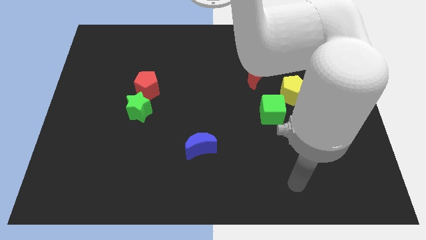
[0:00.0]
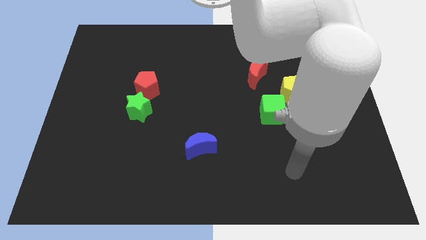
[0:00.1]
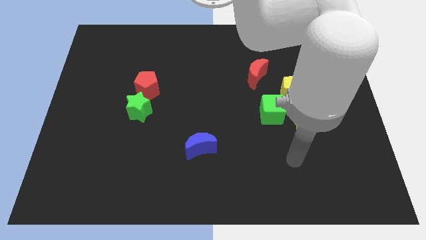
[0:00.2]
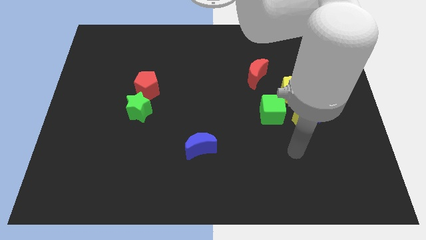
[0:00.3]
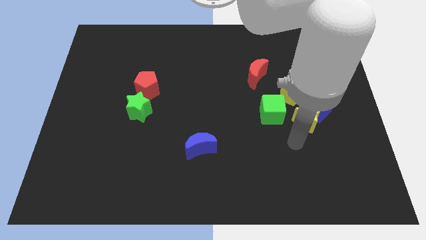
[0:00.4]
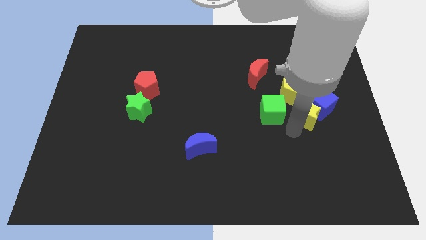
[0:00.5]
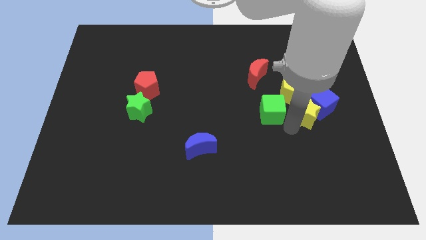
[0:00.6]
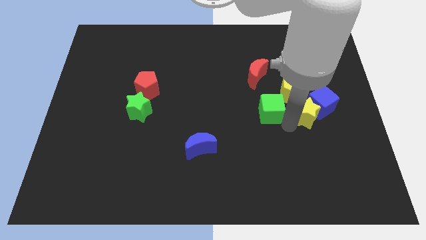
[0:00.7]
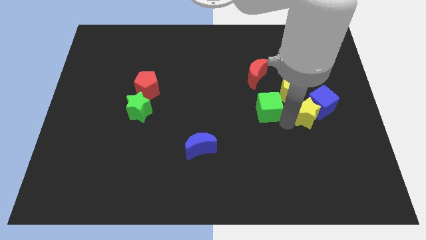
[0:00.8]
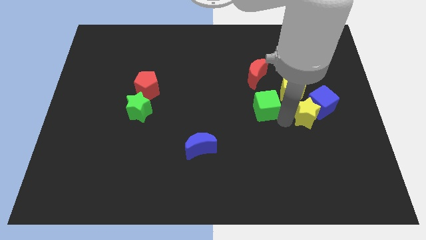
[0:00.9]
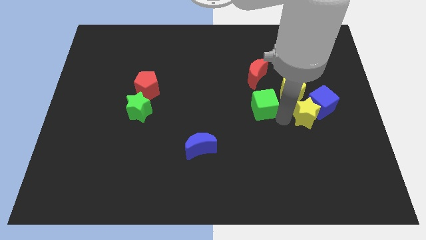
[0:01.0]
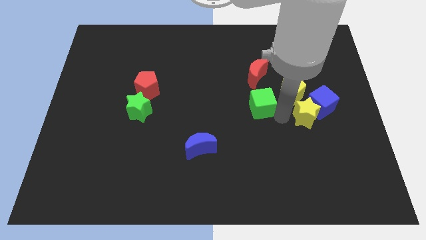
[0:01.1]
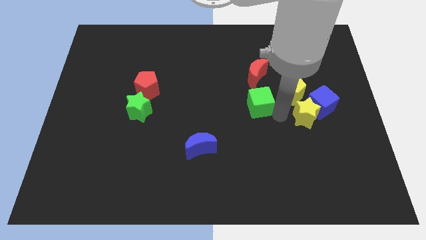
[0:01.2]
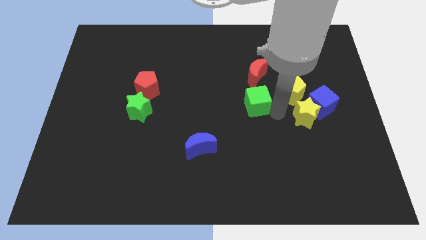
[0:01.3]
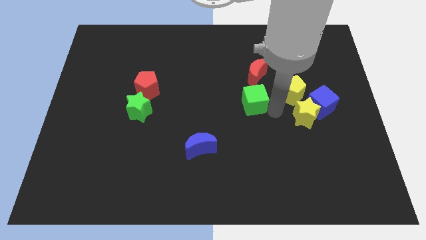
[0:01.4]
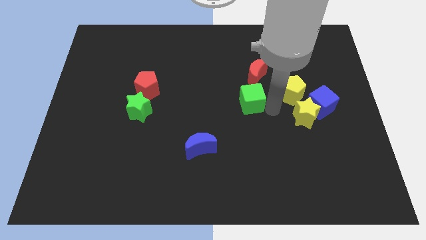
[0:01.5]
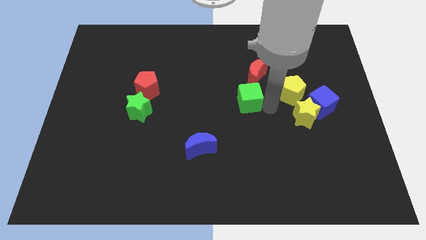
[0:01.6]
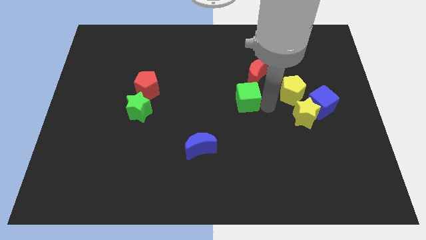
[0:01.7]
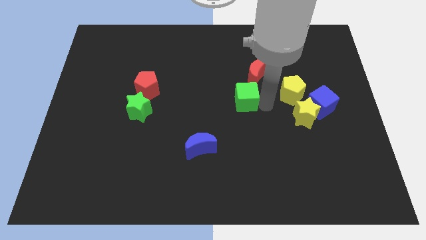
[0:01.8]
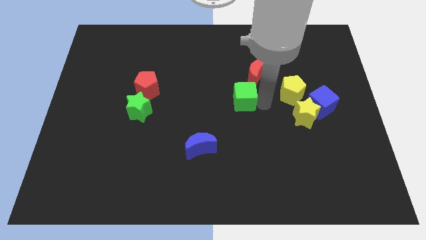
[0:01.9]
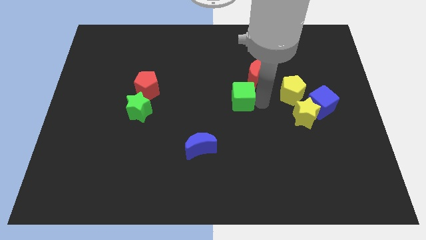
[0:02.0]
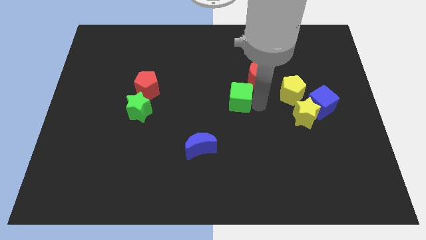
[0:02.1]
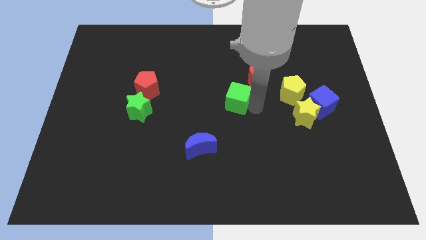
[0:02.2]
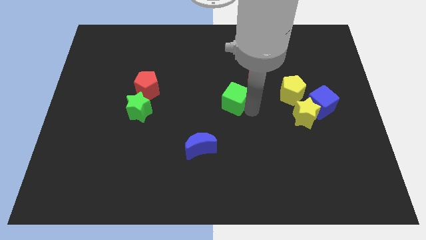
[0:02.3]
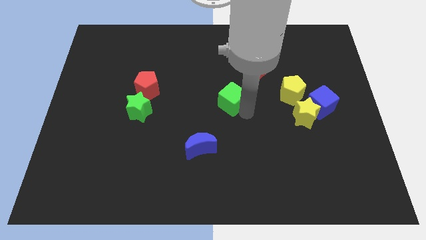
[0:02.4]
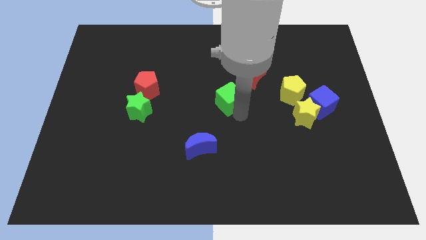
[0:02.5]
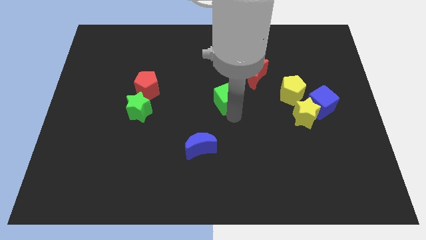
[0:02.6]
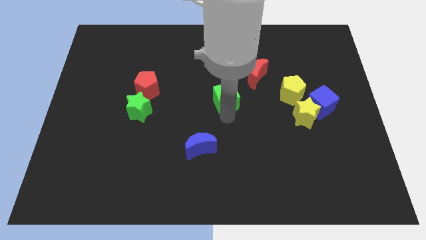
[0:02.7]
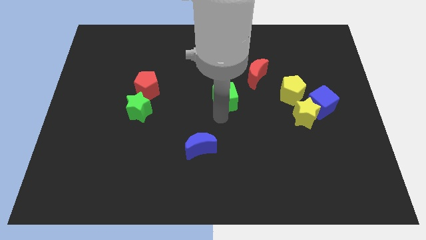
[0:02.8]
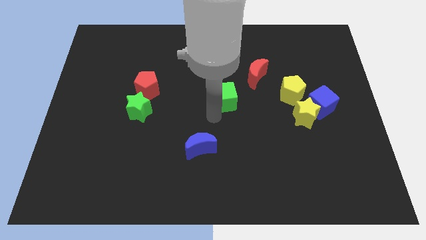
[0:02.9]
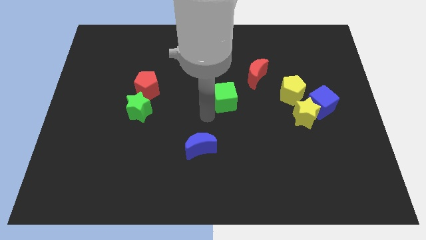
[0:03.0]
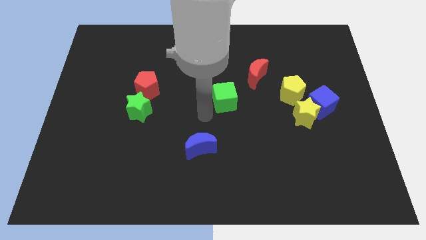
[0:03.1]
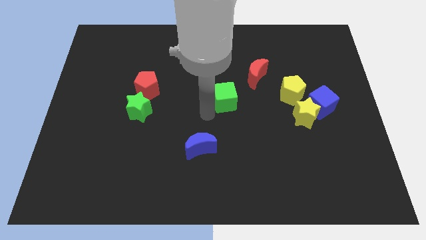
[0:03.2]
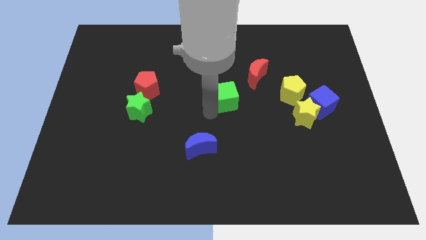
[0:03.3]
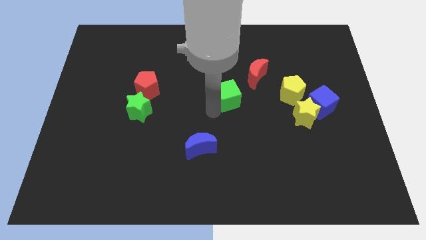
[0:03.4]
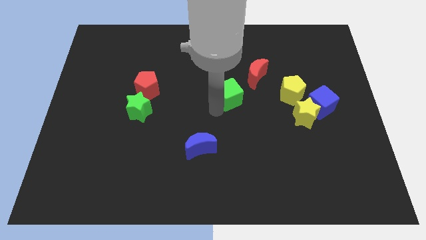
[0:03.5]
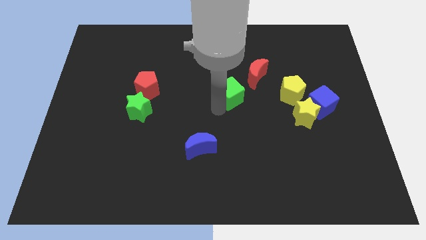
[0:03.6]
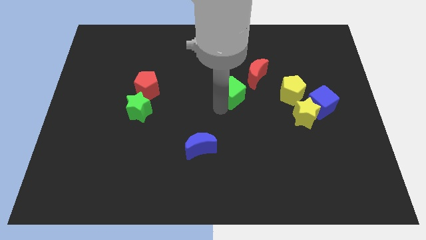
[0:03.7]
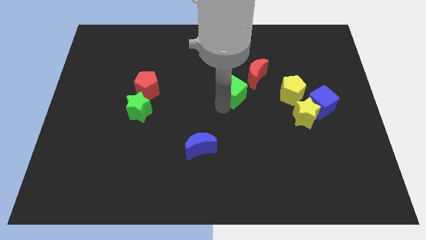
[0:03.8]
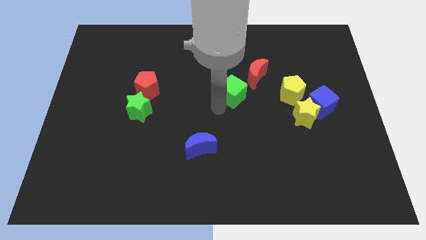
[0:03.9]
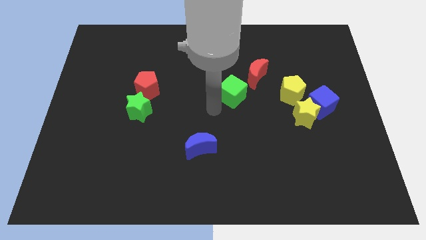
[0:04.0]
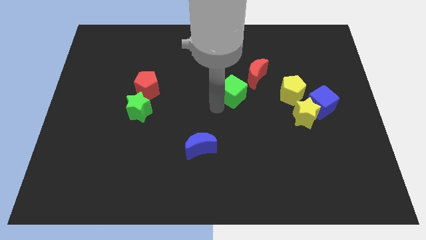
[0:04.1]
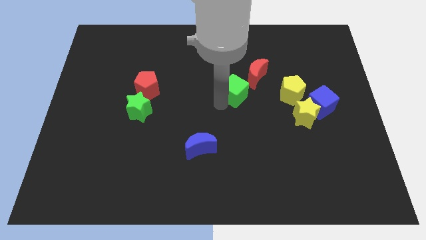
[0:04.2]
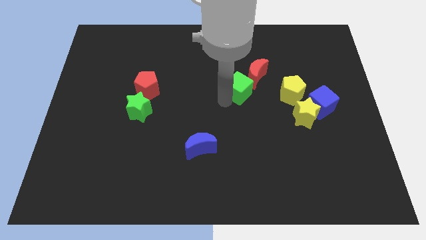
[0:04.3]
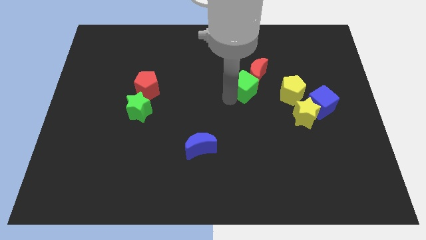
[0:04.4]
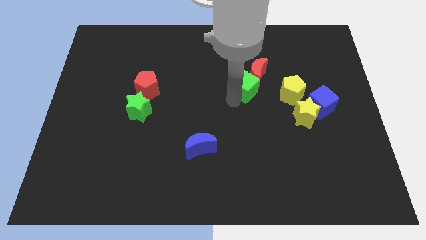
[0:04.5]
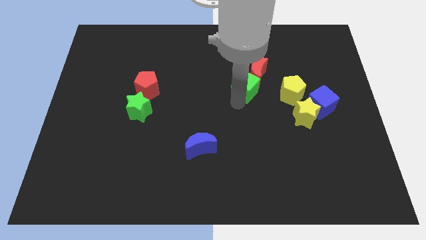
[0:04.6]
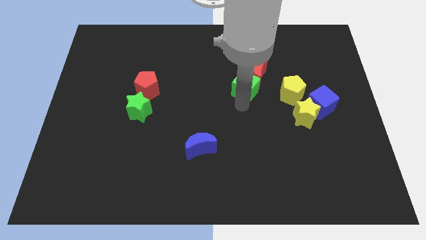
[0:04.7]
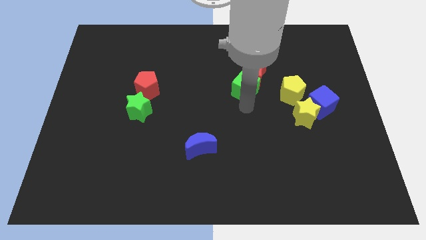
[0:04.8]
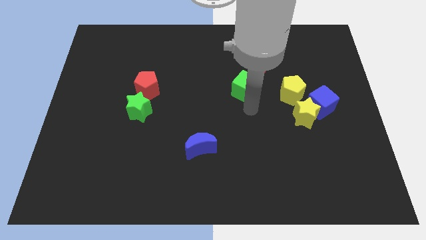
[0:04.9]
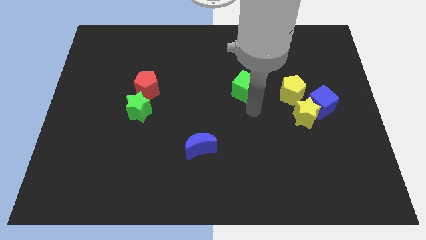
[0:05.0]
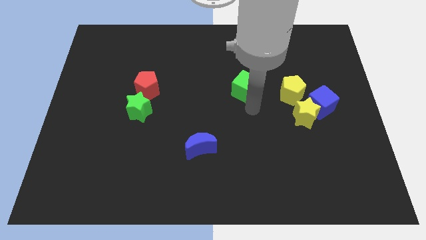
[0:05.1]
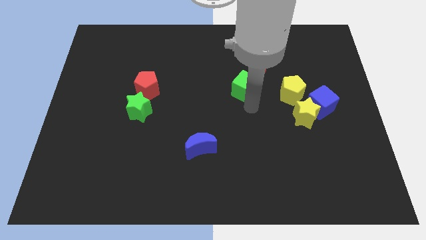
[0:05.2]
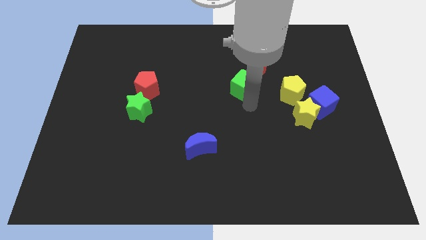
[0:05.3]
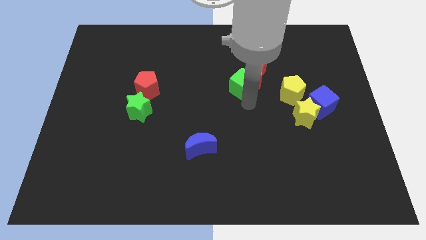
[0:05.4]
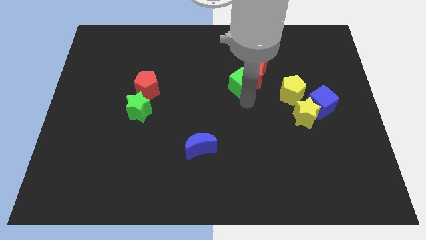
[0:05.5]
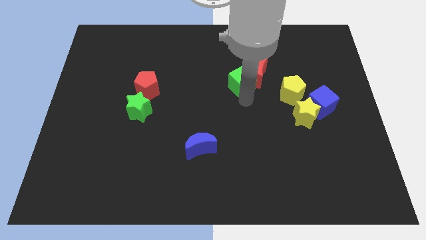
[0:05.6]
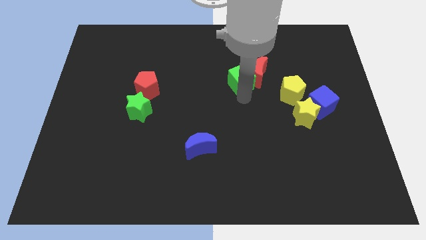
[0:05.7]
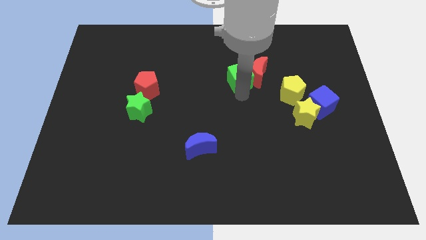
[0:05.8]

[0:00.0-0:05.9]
put the green cube to the top left of the red moon

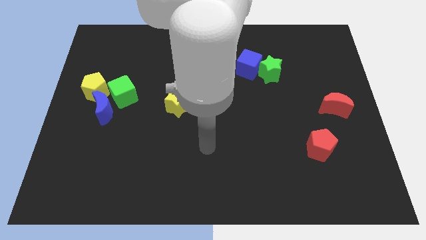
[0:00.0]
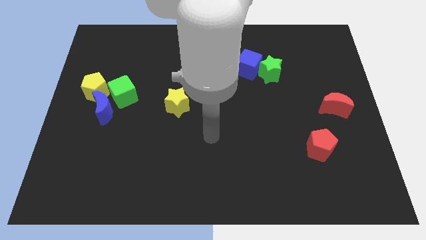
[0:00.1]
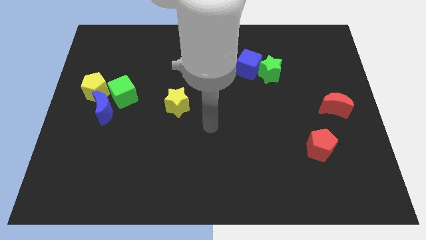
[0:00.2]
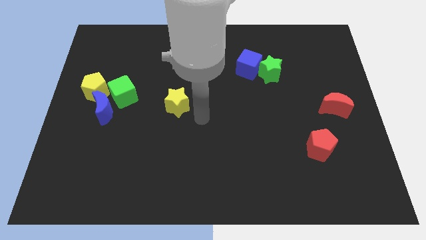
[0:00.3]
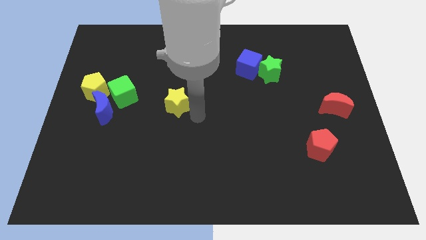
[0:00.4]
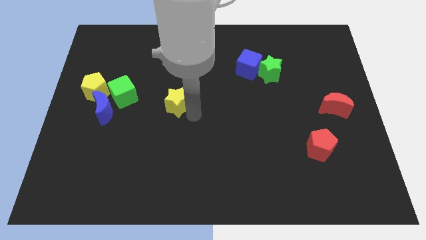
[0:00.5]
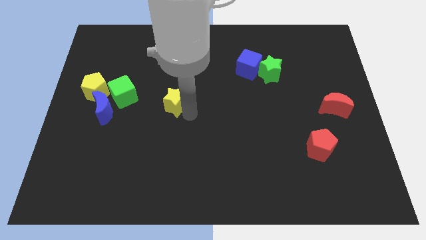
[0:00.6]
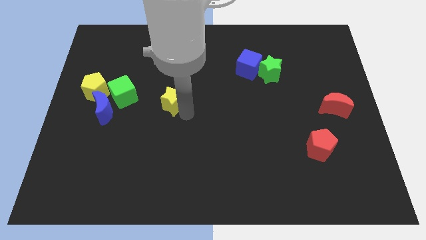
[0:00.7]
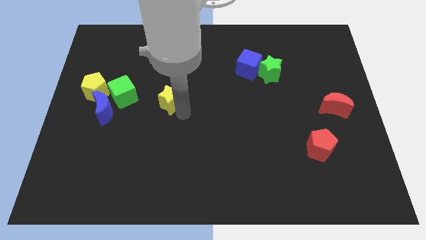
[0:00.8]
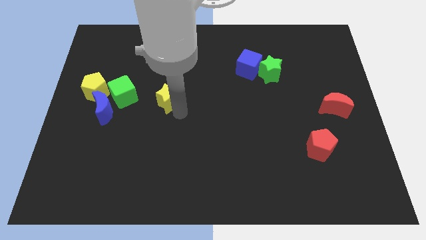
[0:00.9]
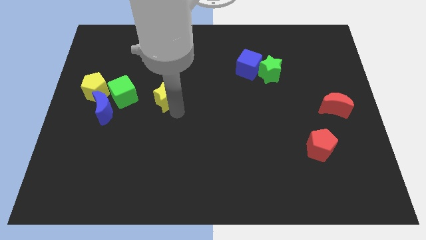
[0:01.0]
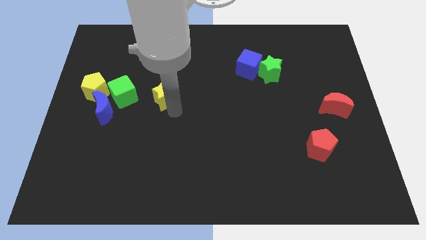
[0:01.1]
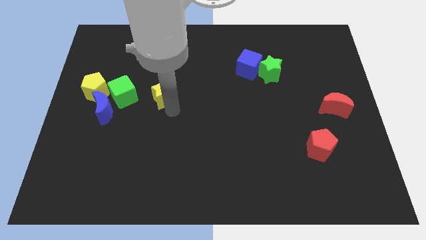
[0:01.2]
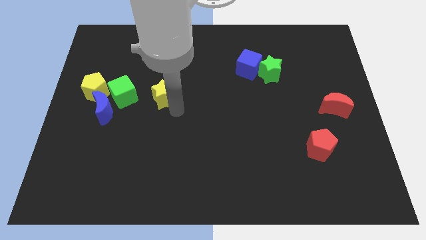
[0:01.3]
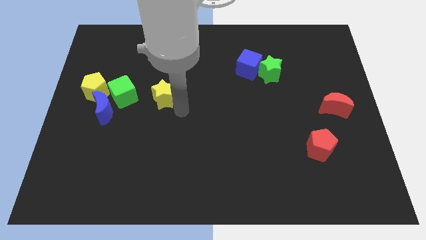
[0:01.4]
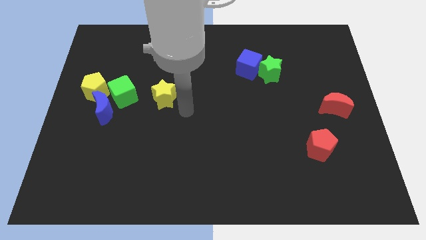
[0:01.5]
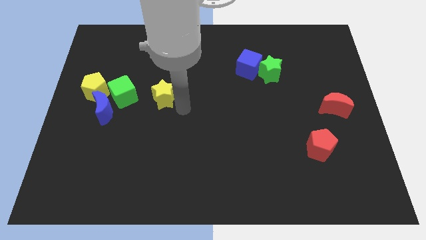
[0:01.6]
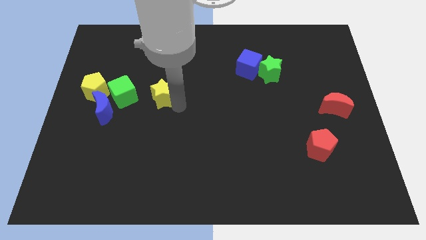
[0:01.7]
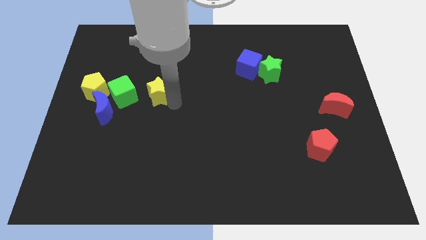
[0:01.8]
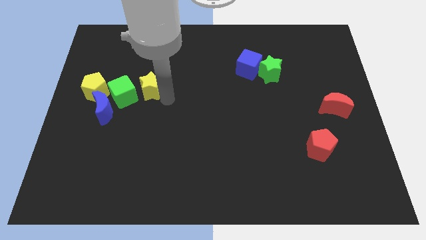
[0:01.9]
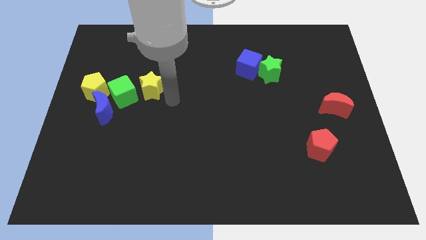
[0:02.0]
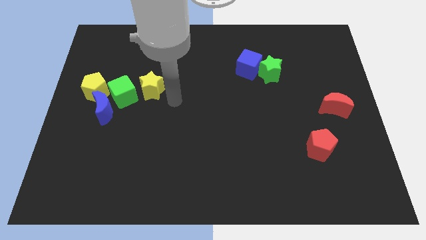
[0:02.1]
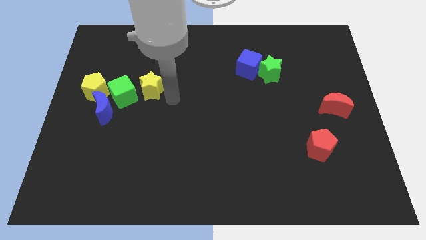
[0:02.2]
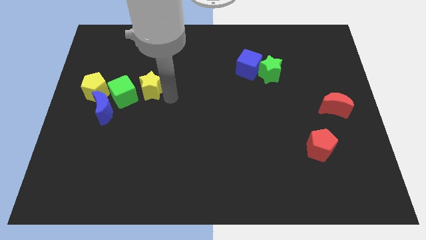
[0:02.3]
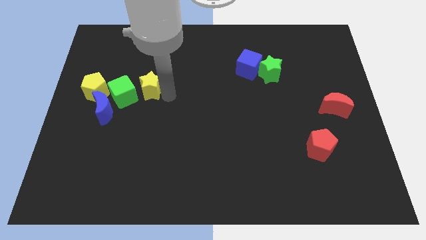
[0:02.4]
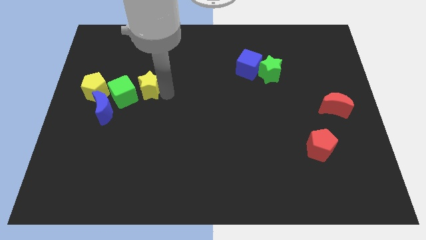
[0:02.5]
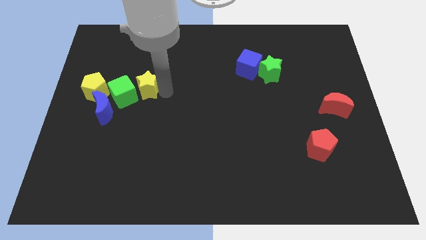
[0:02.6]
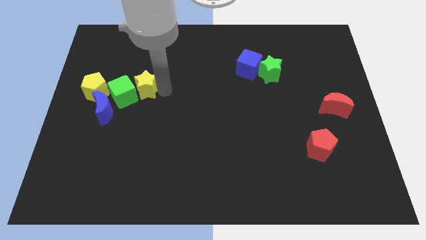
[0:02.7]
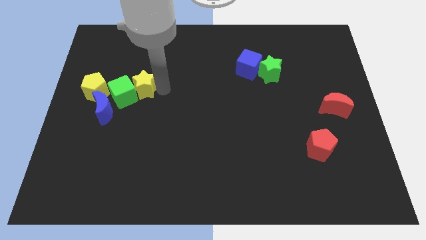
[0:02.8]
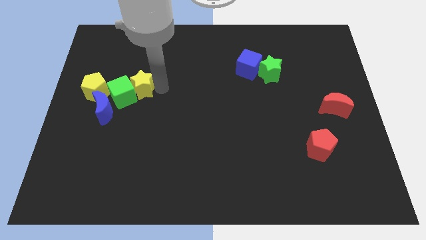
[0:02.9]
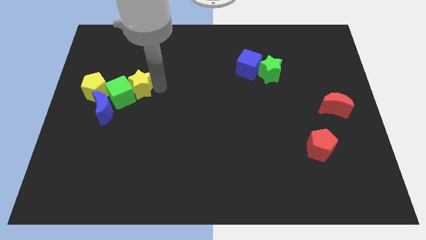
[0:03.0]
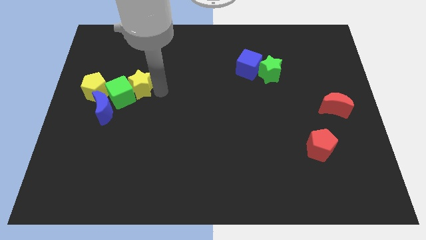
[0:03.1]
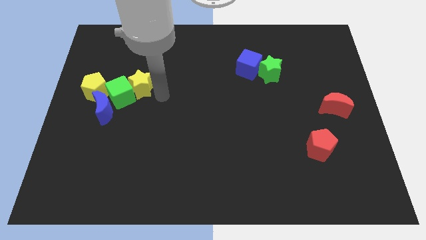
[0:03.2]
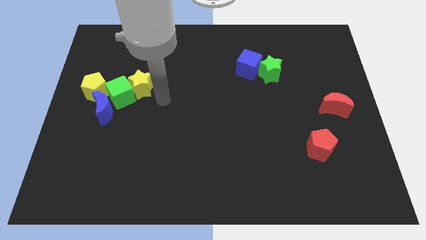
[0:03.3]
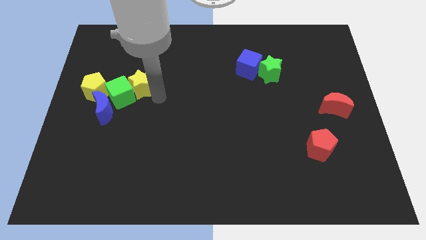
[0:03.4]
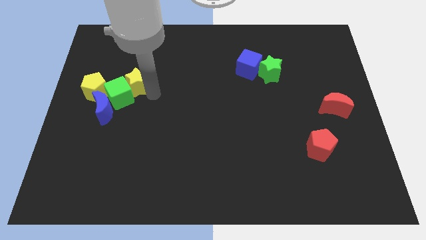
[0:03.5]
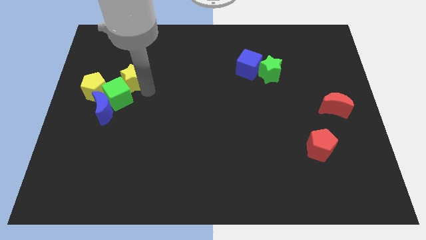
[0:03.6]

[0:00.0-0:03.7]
put the yellow star diagonally up and to the right of the yellow pentagon
